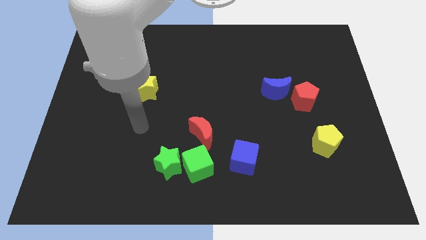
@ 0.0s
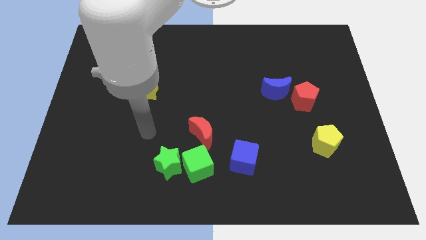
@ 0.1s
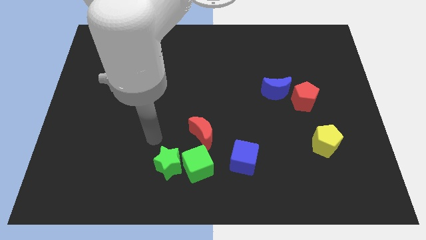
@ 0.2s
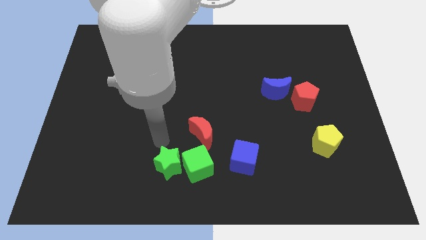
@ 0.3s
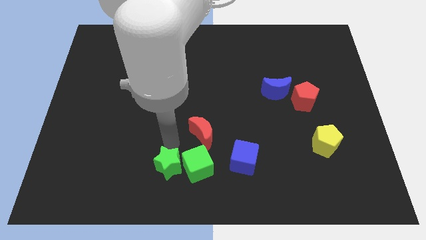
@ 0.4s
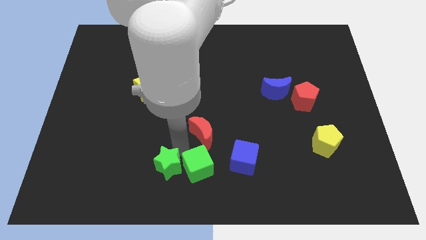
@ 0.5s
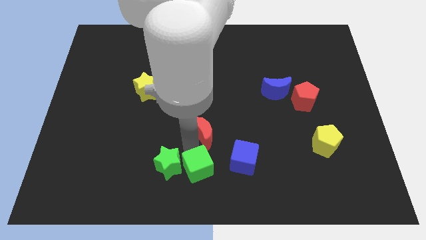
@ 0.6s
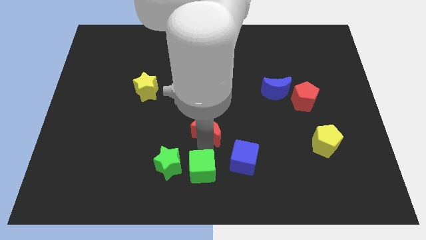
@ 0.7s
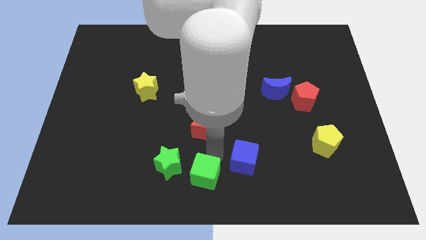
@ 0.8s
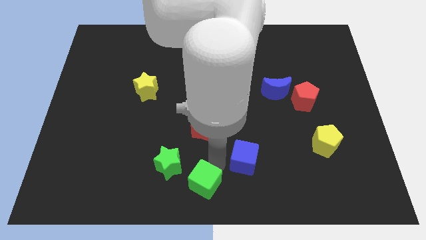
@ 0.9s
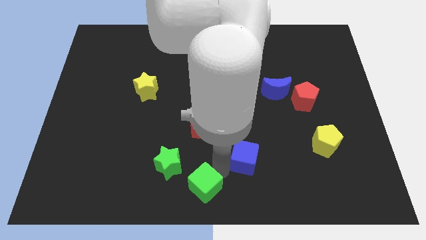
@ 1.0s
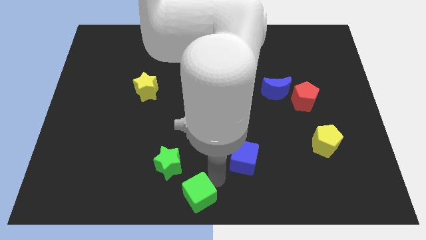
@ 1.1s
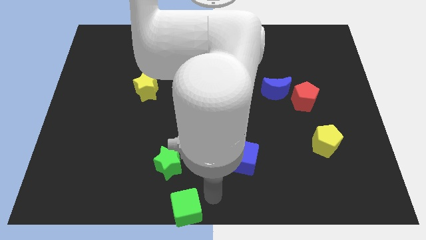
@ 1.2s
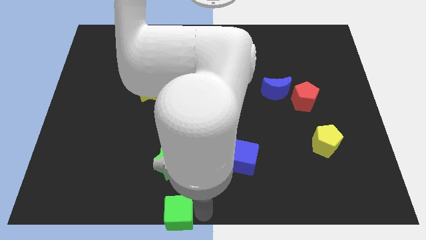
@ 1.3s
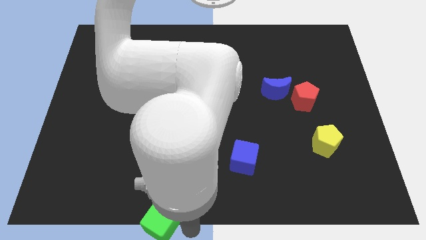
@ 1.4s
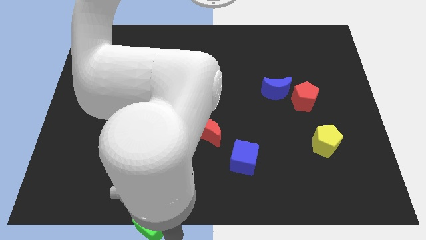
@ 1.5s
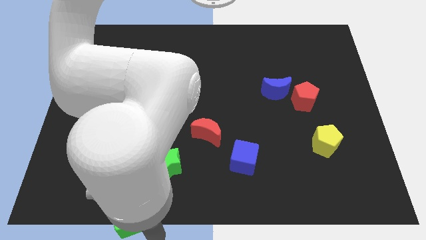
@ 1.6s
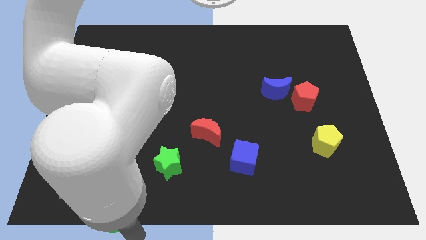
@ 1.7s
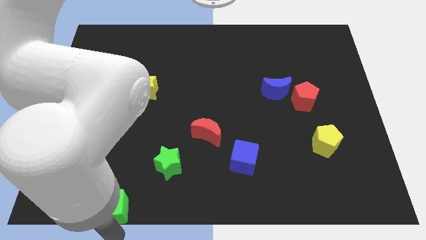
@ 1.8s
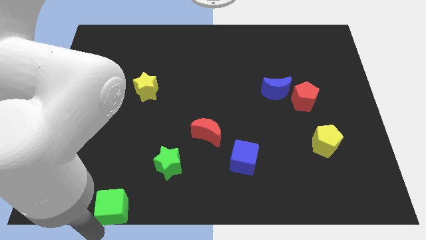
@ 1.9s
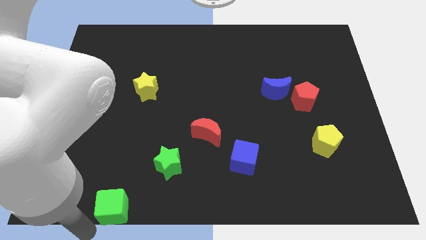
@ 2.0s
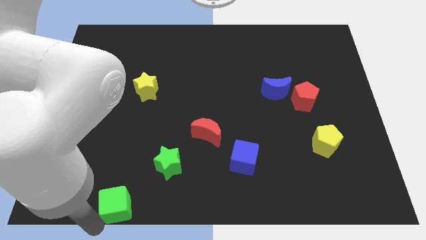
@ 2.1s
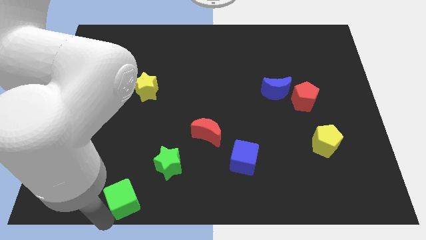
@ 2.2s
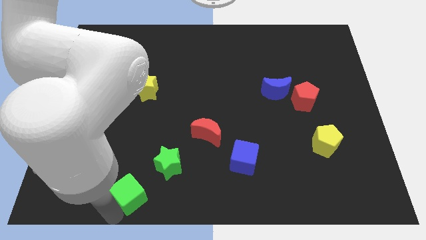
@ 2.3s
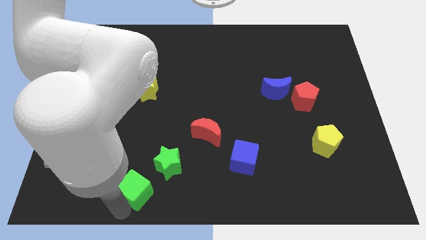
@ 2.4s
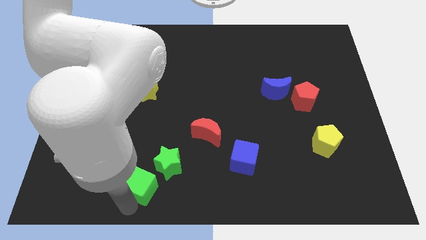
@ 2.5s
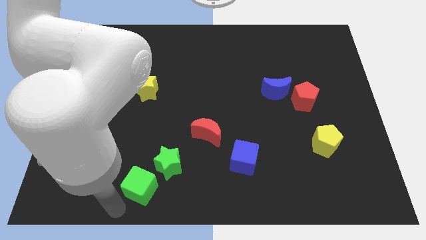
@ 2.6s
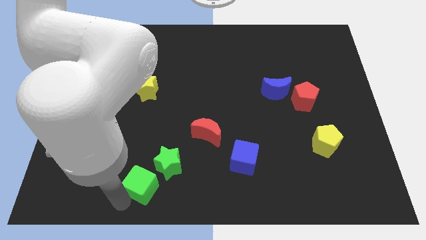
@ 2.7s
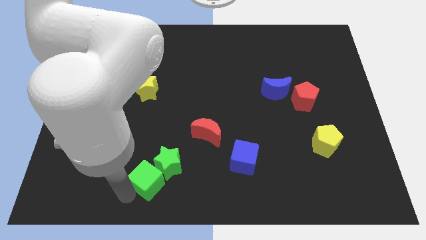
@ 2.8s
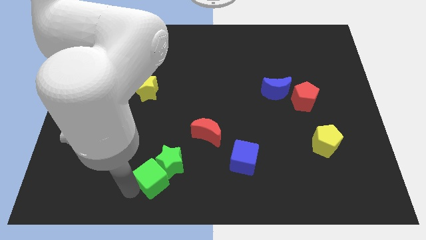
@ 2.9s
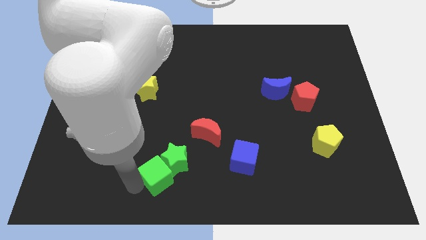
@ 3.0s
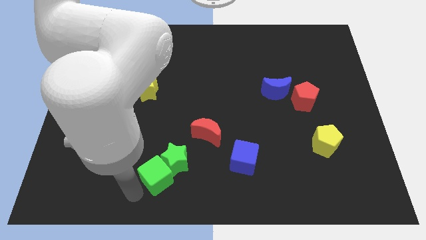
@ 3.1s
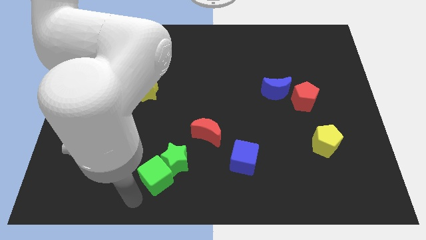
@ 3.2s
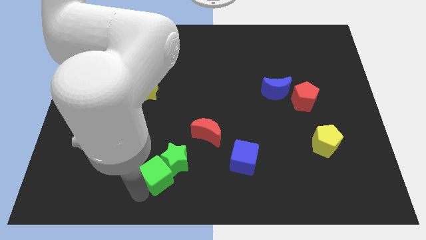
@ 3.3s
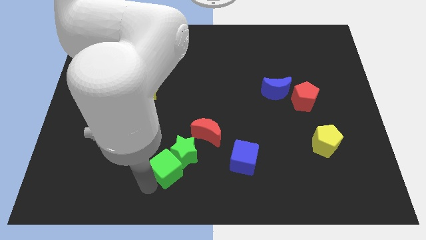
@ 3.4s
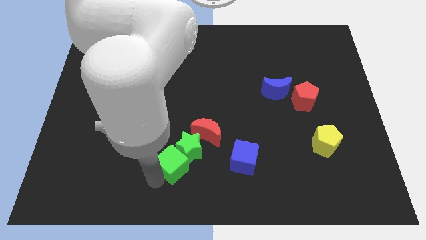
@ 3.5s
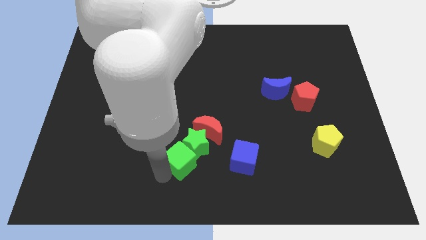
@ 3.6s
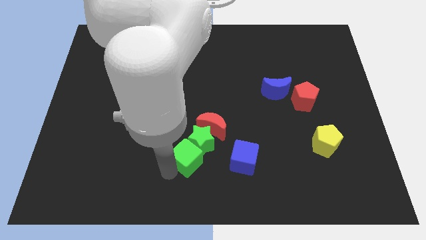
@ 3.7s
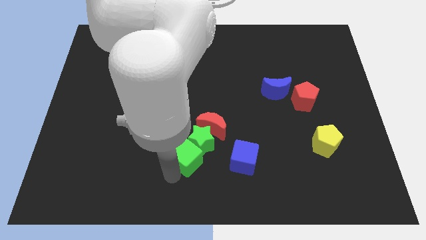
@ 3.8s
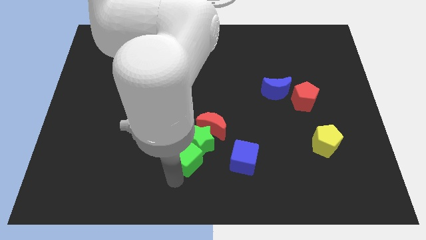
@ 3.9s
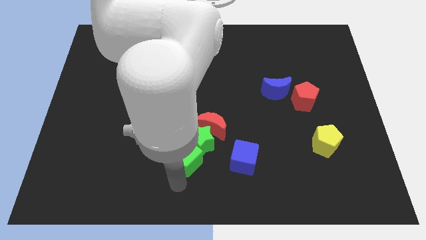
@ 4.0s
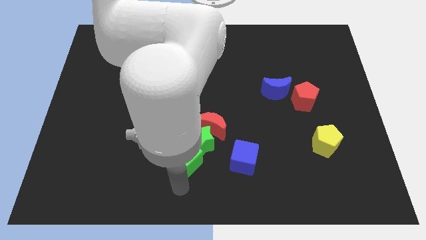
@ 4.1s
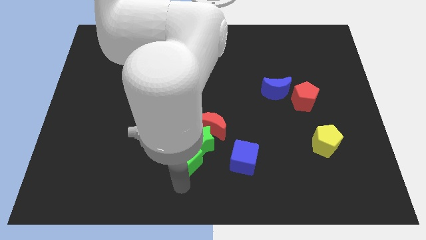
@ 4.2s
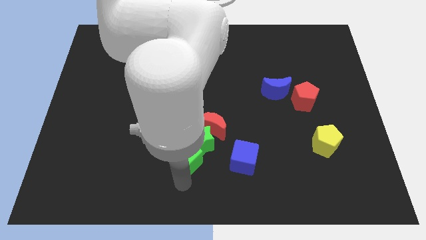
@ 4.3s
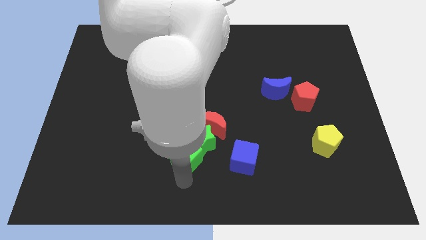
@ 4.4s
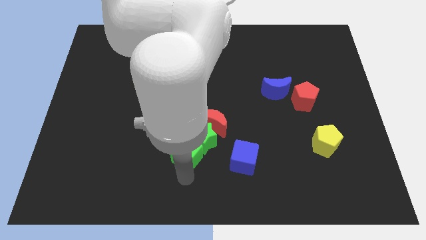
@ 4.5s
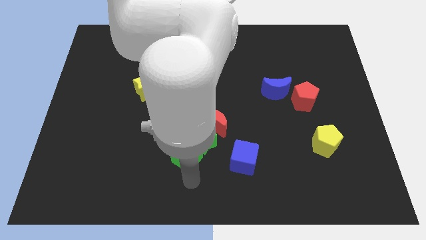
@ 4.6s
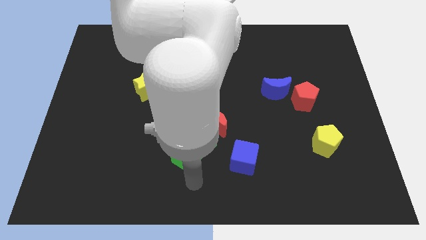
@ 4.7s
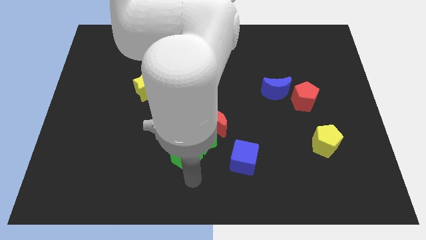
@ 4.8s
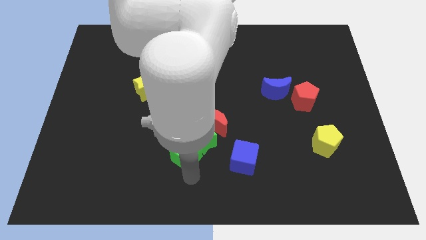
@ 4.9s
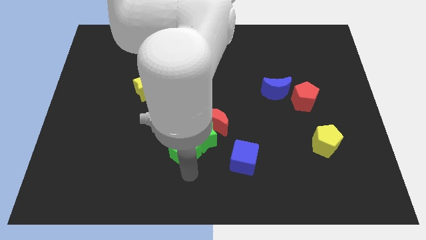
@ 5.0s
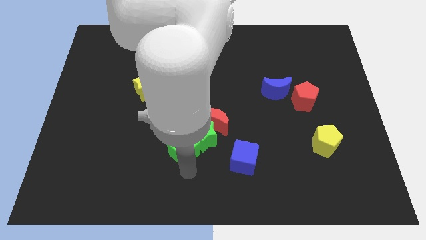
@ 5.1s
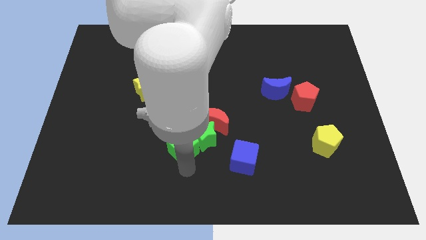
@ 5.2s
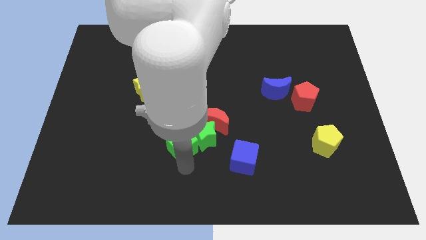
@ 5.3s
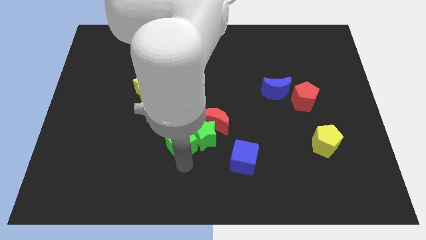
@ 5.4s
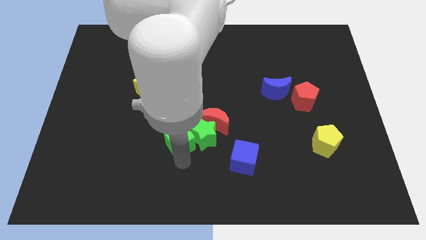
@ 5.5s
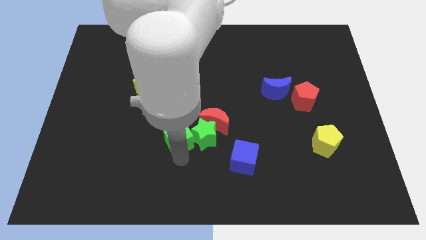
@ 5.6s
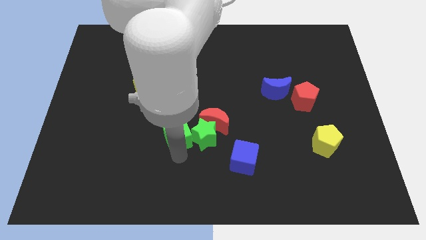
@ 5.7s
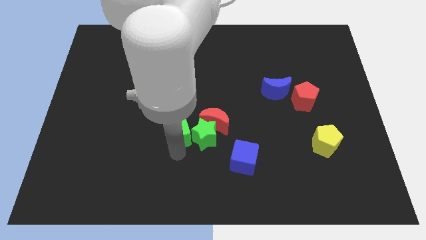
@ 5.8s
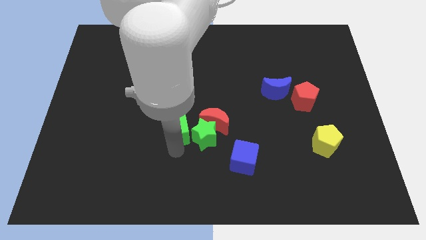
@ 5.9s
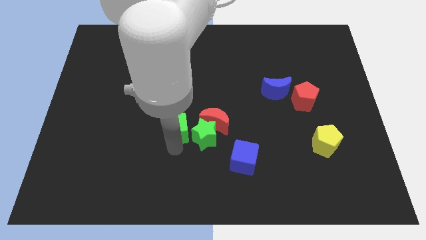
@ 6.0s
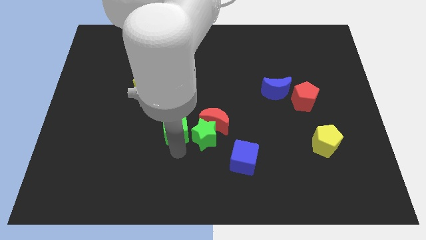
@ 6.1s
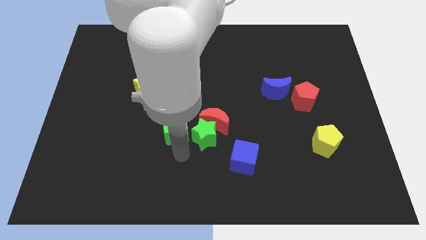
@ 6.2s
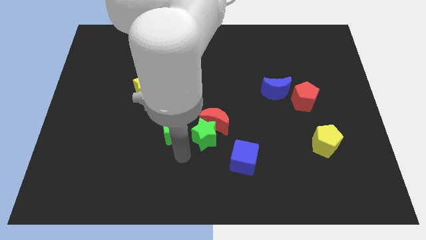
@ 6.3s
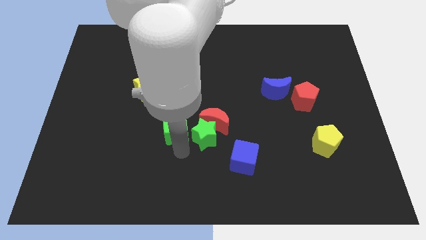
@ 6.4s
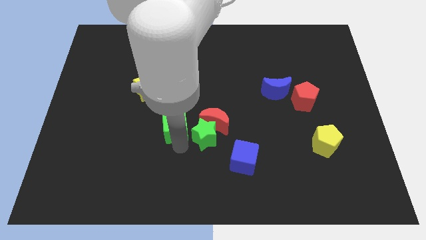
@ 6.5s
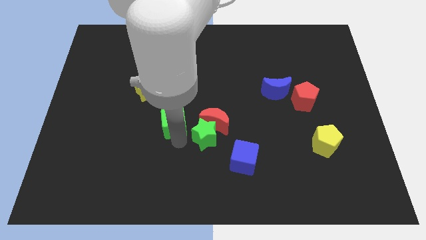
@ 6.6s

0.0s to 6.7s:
put the green cube diagonally down and to the right of the yellow star
